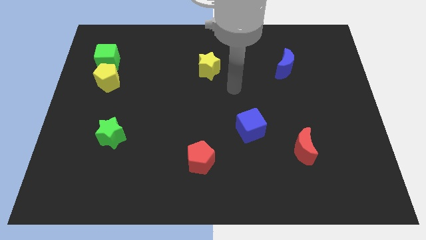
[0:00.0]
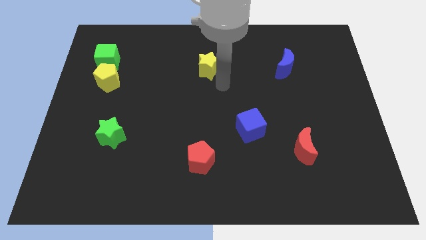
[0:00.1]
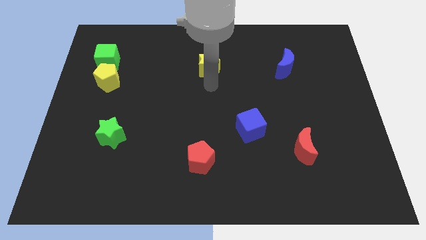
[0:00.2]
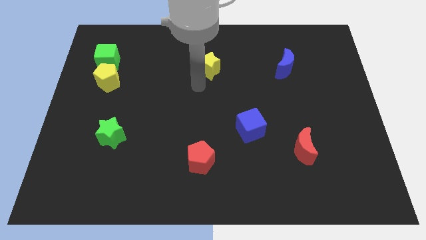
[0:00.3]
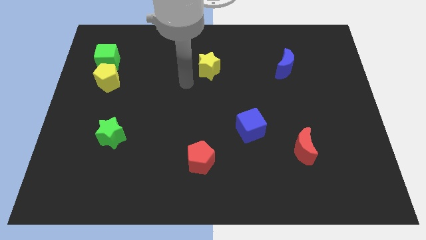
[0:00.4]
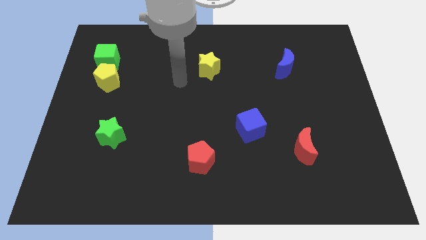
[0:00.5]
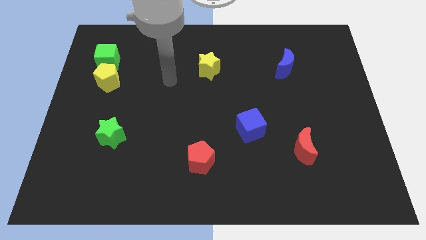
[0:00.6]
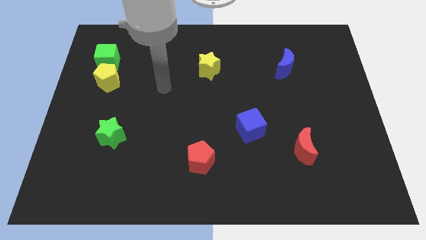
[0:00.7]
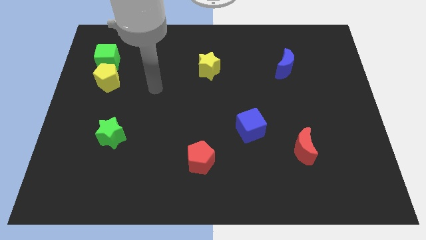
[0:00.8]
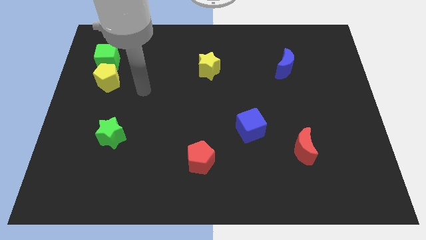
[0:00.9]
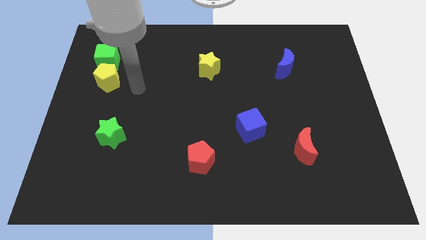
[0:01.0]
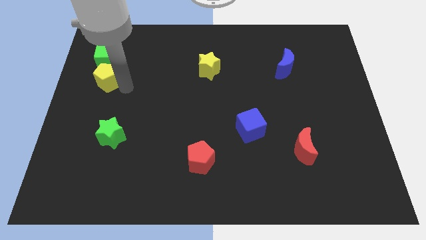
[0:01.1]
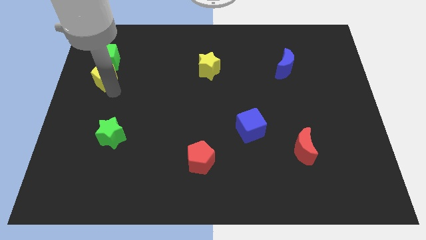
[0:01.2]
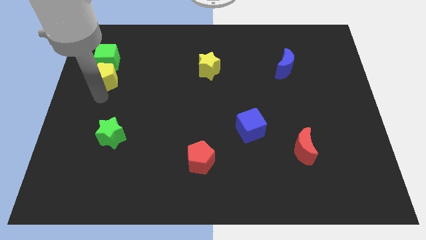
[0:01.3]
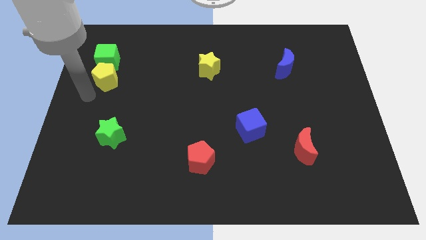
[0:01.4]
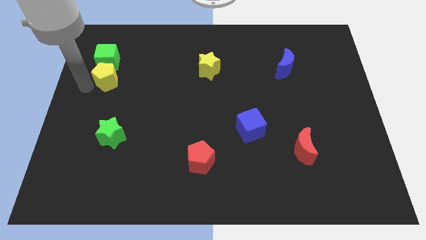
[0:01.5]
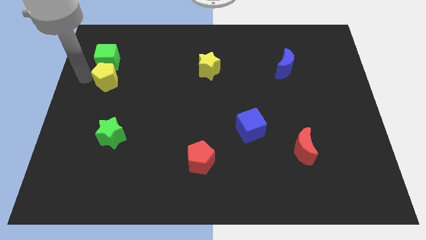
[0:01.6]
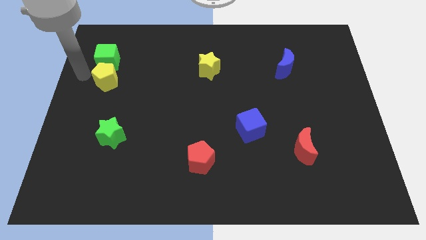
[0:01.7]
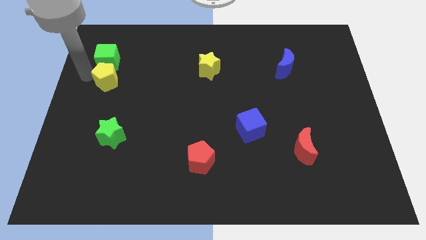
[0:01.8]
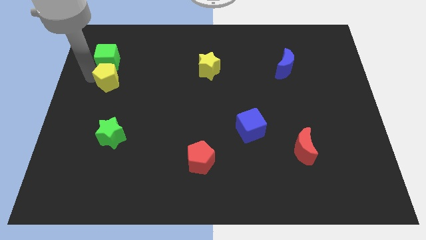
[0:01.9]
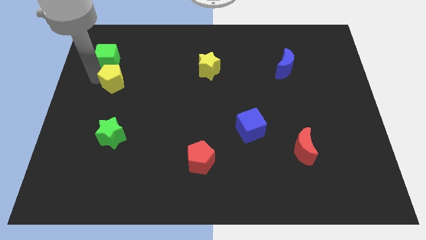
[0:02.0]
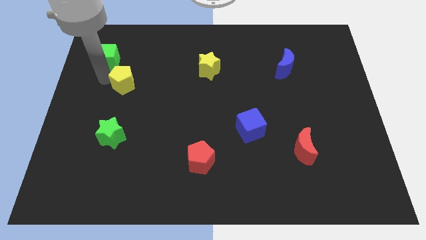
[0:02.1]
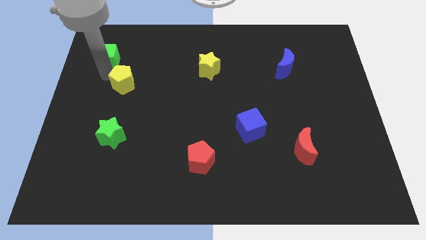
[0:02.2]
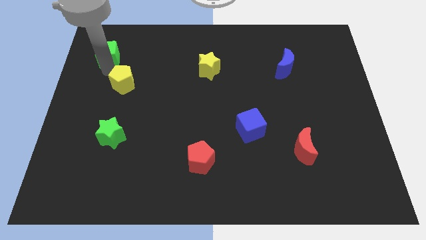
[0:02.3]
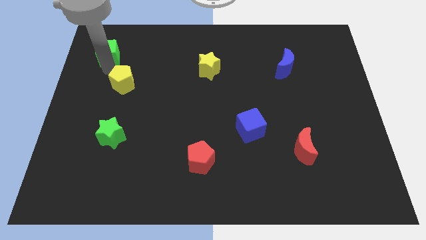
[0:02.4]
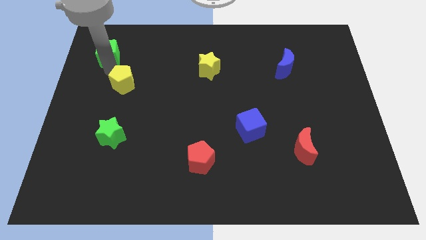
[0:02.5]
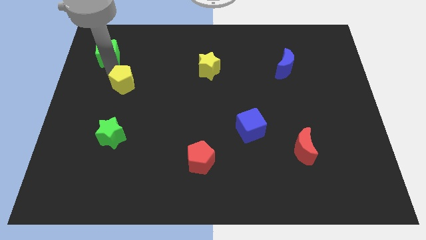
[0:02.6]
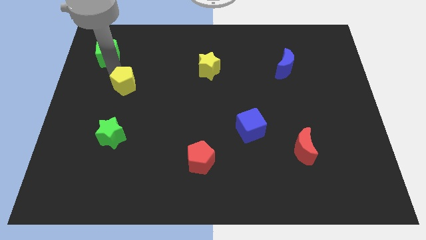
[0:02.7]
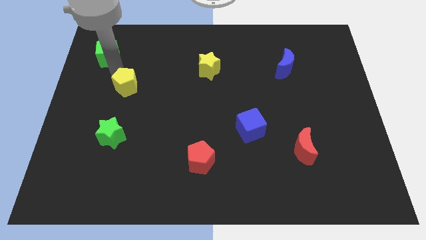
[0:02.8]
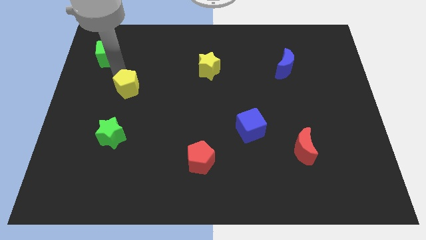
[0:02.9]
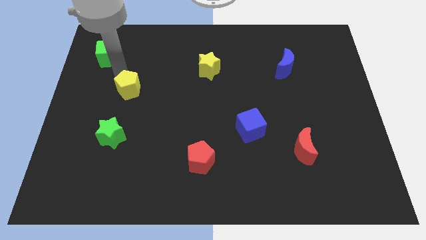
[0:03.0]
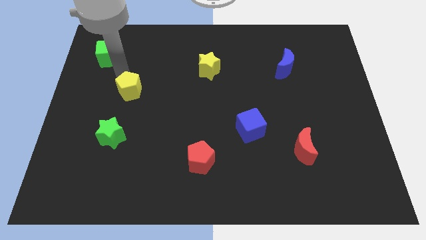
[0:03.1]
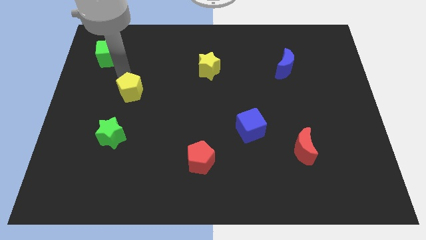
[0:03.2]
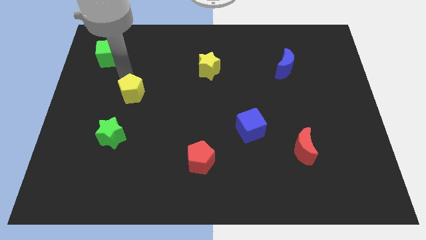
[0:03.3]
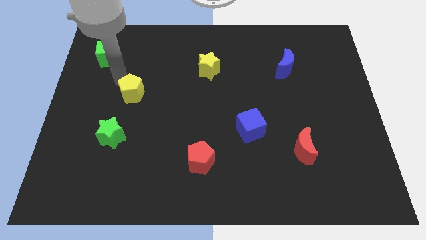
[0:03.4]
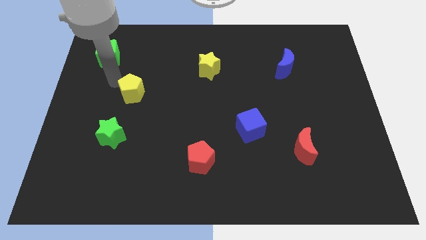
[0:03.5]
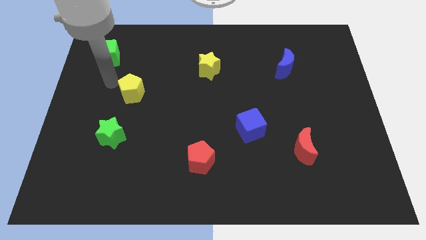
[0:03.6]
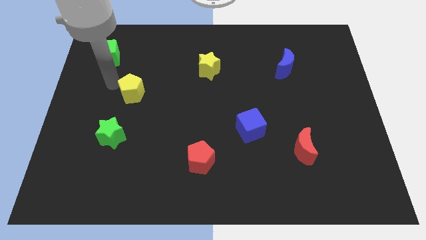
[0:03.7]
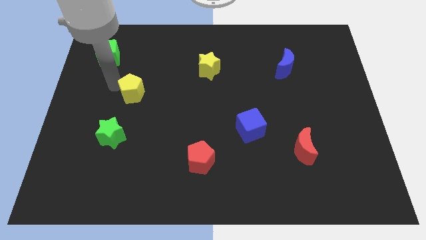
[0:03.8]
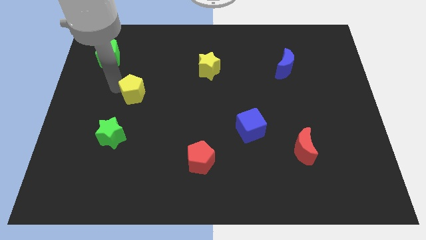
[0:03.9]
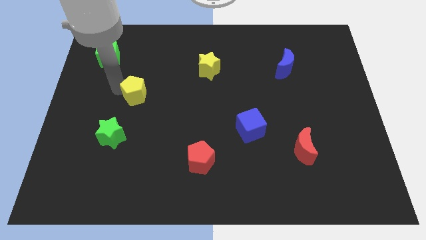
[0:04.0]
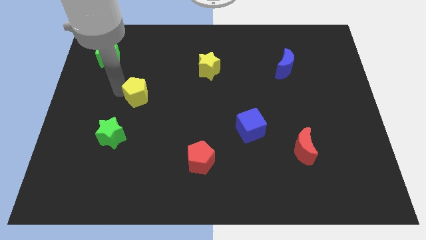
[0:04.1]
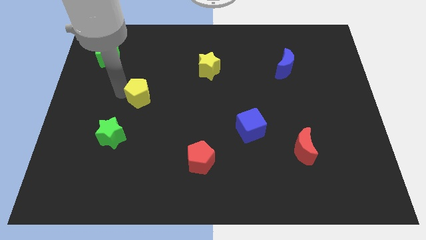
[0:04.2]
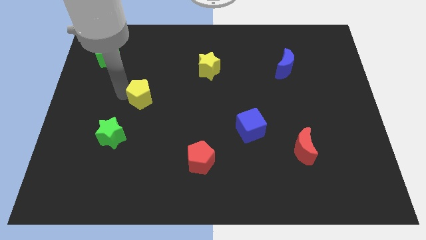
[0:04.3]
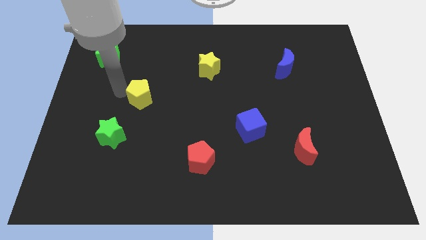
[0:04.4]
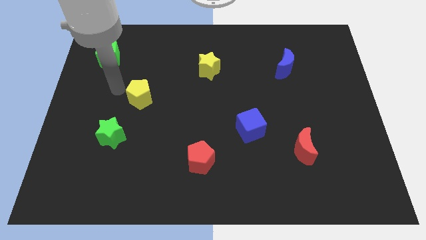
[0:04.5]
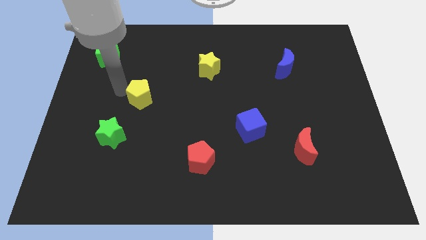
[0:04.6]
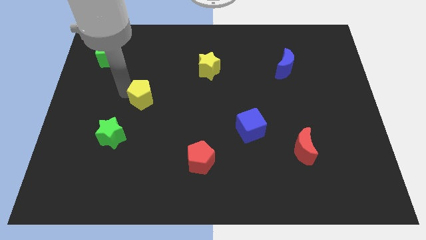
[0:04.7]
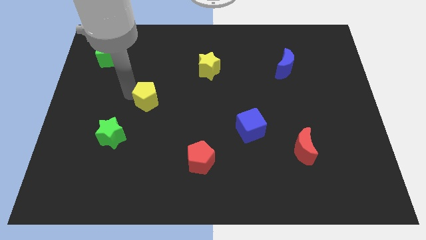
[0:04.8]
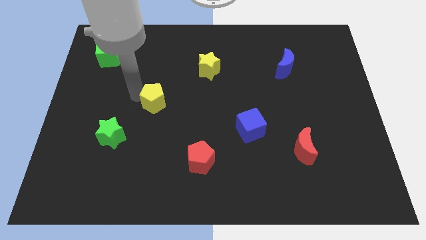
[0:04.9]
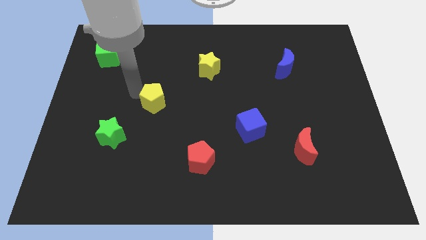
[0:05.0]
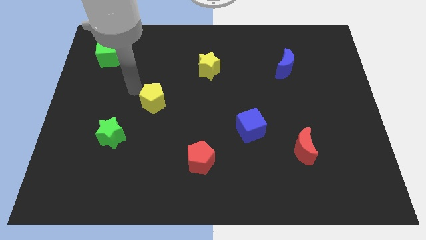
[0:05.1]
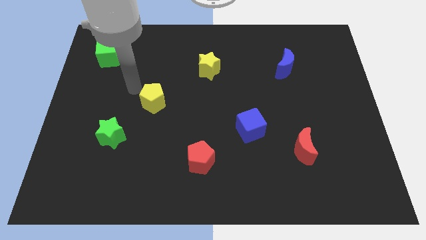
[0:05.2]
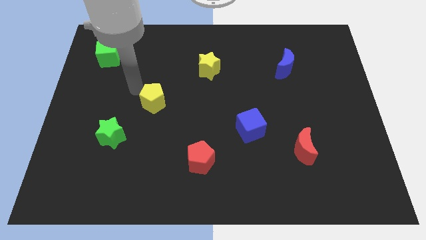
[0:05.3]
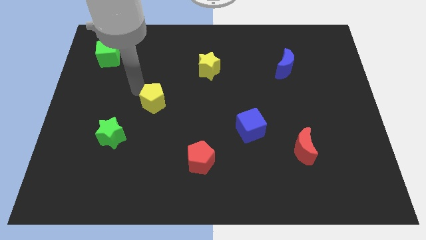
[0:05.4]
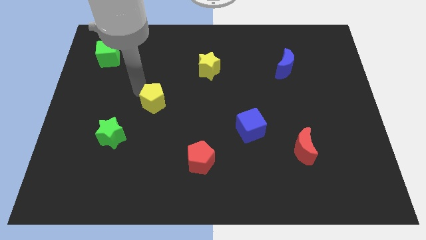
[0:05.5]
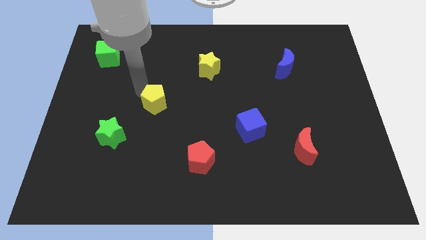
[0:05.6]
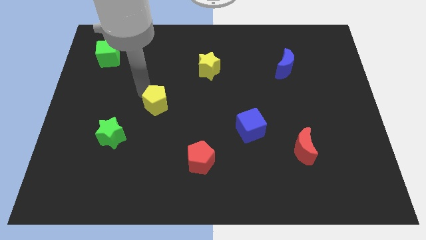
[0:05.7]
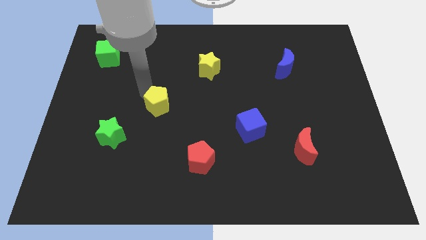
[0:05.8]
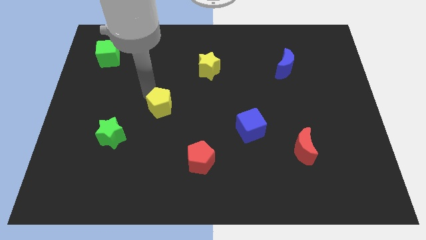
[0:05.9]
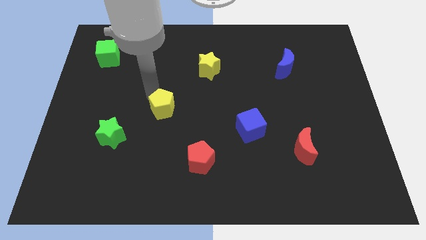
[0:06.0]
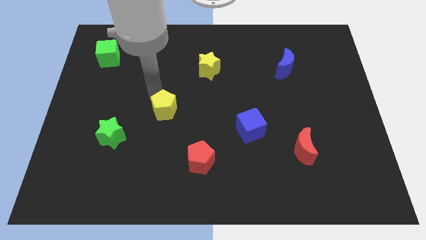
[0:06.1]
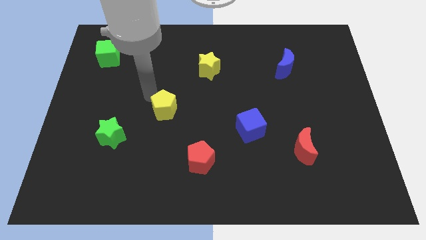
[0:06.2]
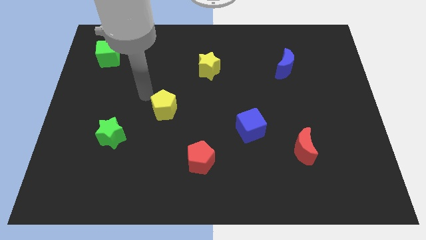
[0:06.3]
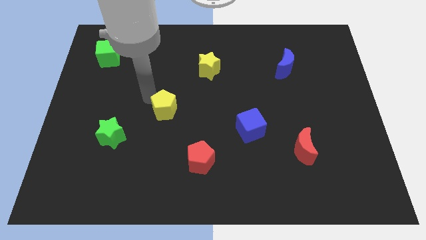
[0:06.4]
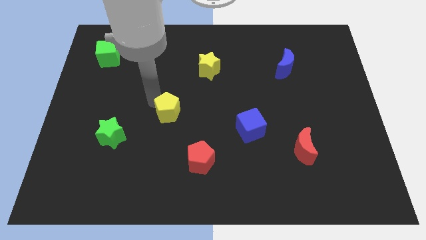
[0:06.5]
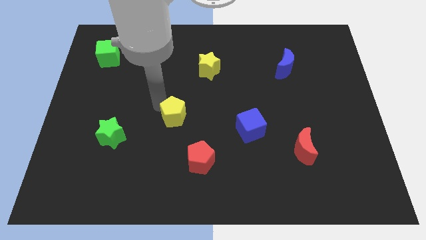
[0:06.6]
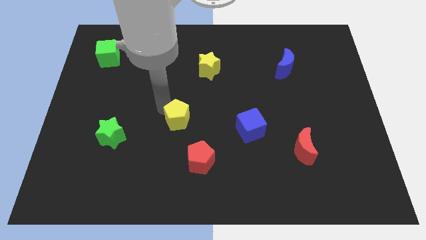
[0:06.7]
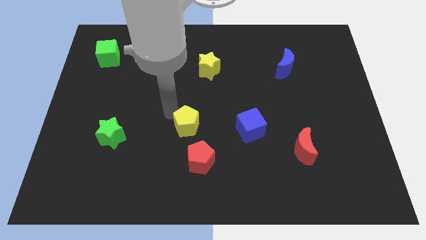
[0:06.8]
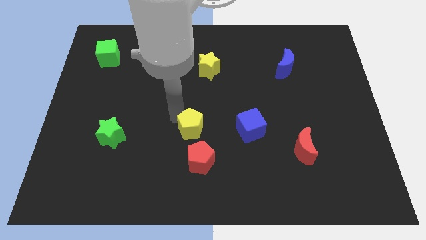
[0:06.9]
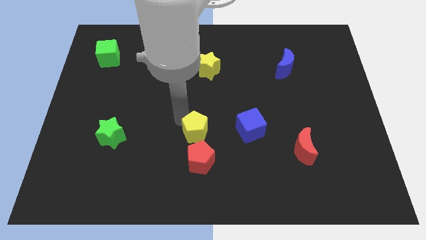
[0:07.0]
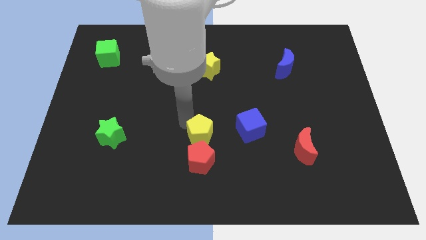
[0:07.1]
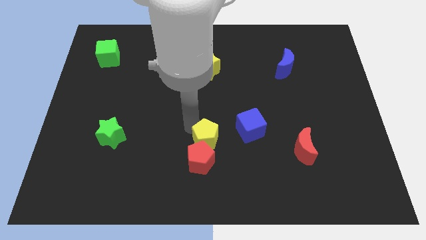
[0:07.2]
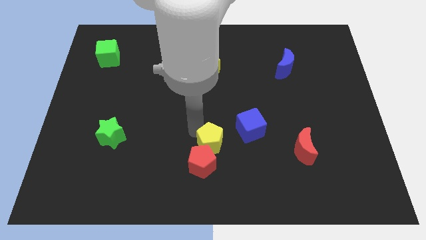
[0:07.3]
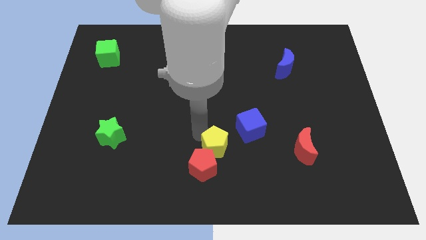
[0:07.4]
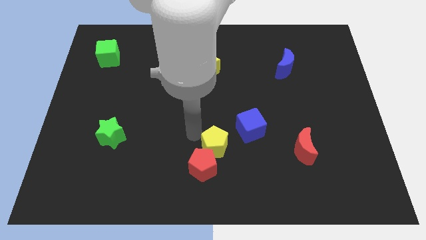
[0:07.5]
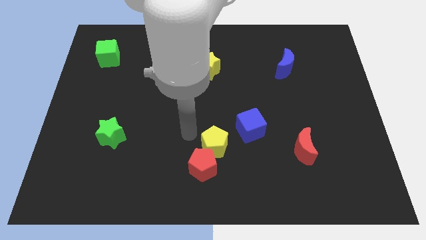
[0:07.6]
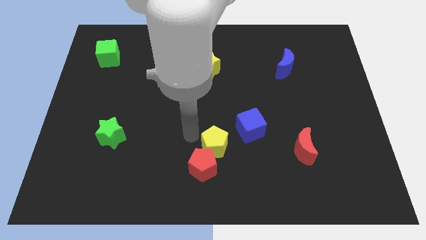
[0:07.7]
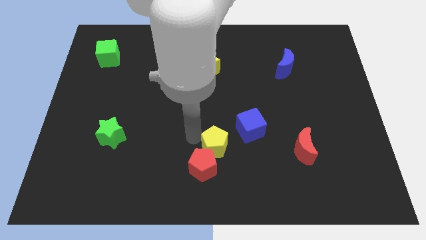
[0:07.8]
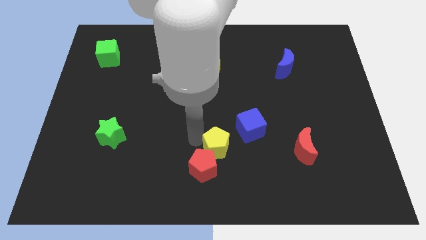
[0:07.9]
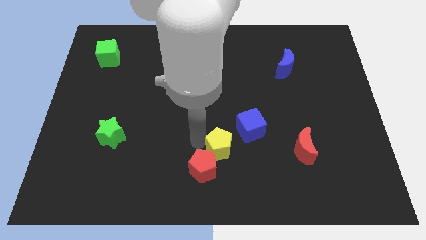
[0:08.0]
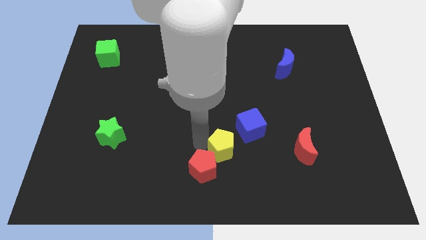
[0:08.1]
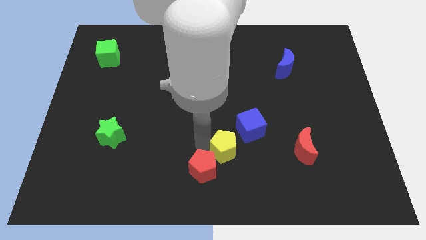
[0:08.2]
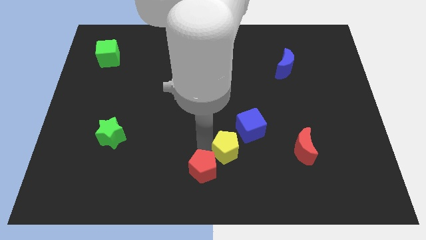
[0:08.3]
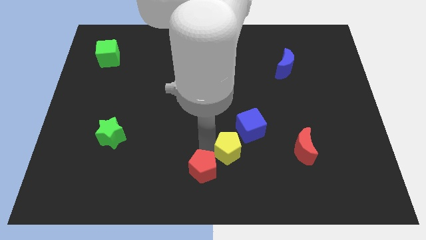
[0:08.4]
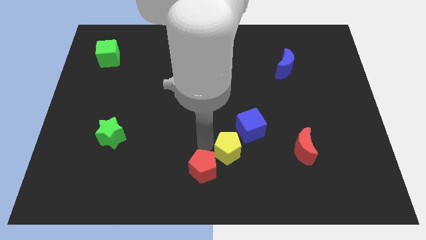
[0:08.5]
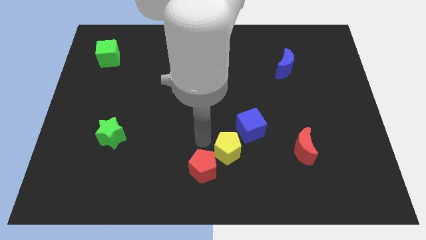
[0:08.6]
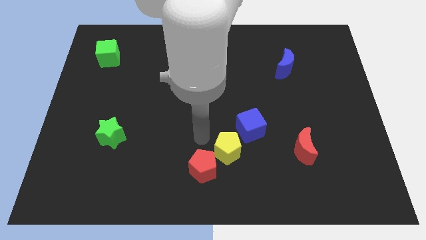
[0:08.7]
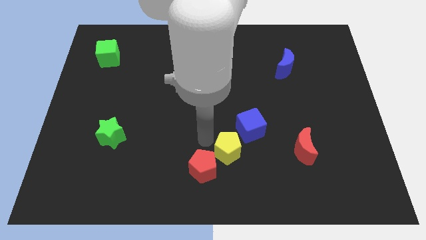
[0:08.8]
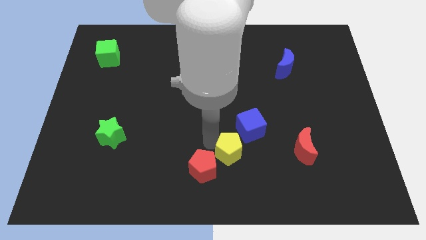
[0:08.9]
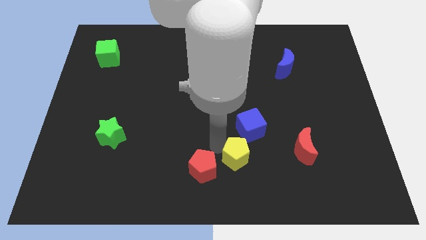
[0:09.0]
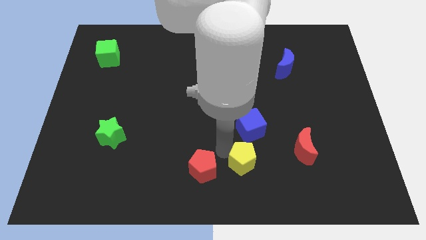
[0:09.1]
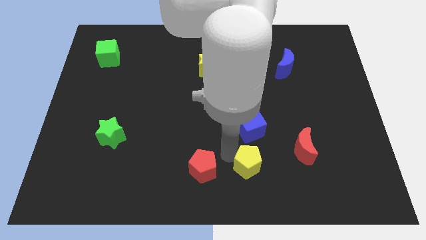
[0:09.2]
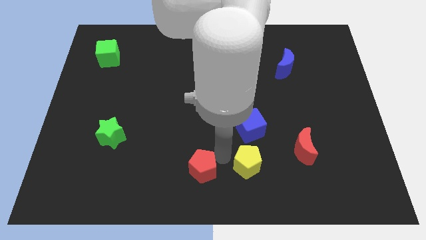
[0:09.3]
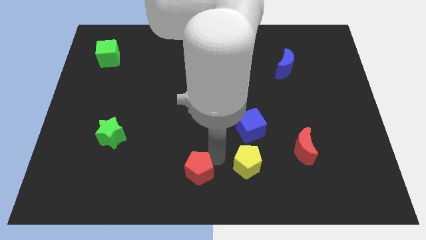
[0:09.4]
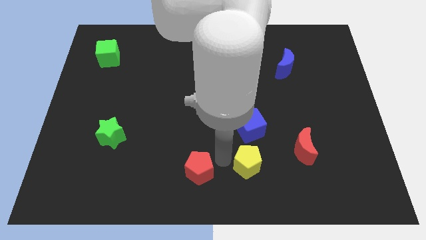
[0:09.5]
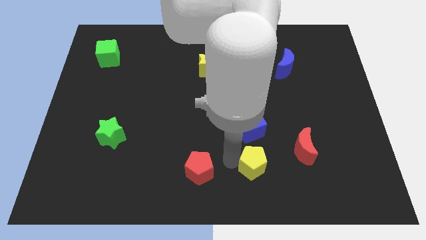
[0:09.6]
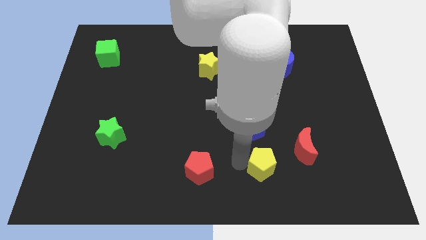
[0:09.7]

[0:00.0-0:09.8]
move the yellow pentagon diagonally down and to the left of the red moon
